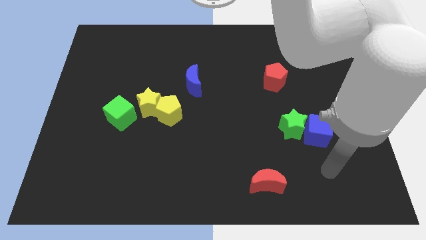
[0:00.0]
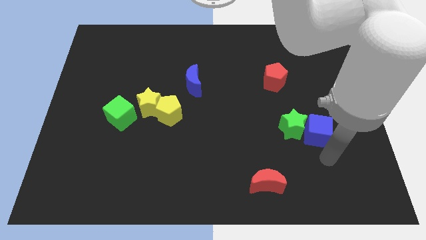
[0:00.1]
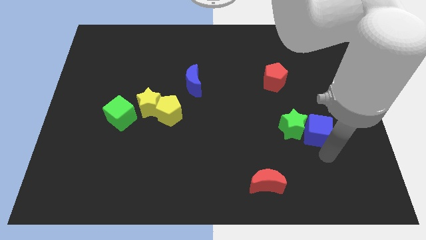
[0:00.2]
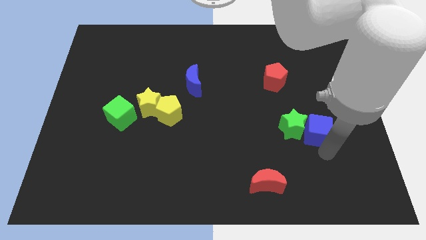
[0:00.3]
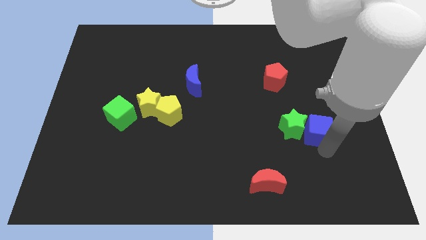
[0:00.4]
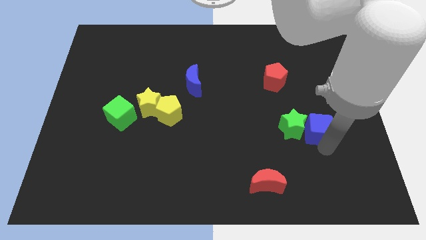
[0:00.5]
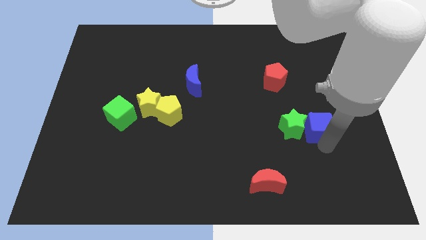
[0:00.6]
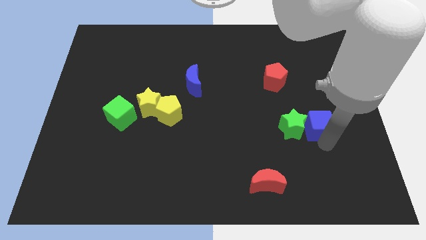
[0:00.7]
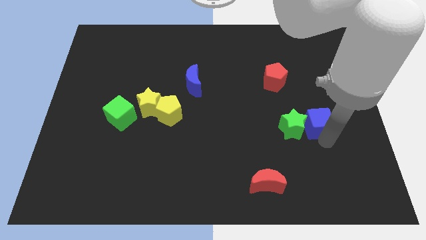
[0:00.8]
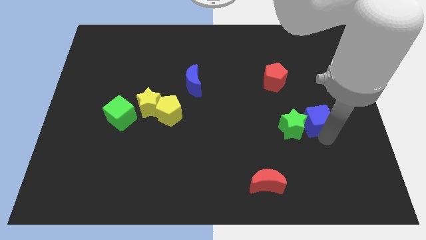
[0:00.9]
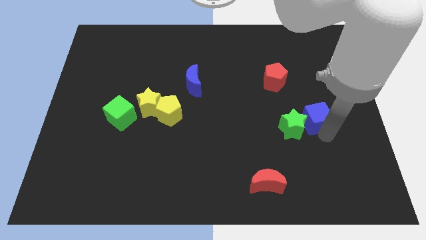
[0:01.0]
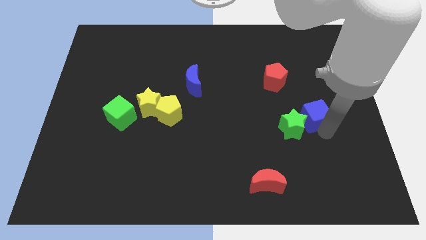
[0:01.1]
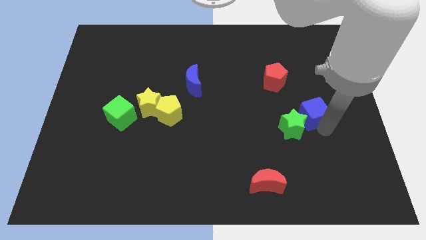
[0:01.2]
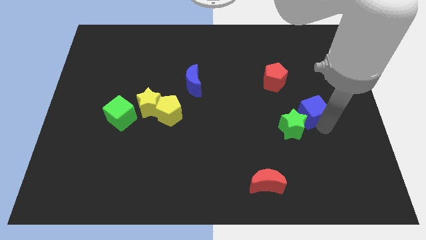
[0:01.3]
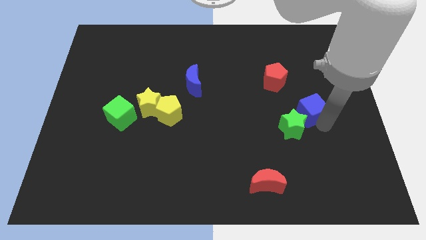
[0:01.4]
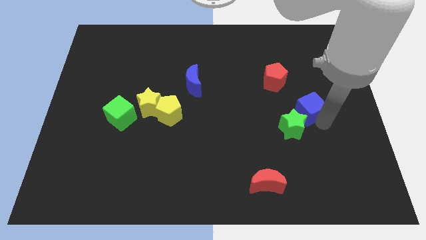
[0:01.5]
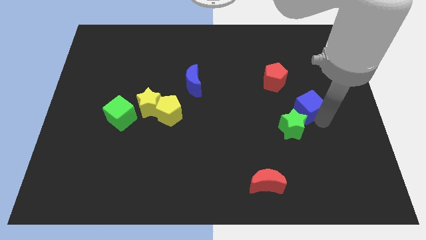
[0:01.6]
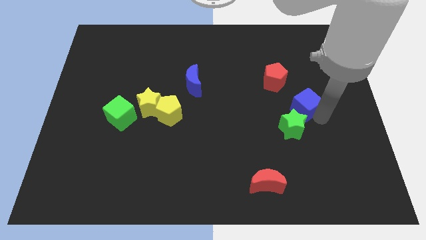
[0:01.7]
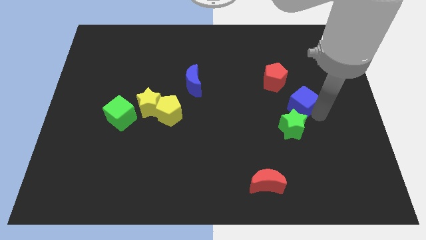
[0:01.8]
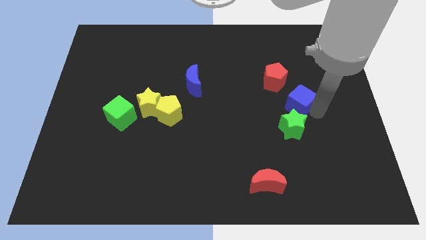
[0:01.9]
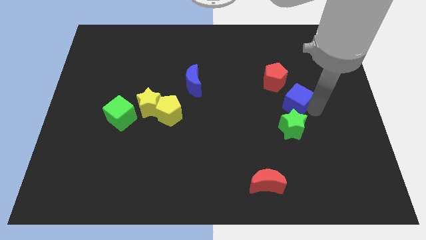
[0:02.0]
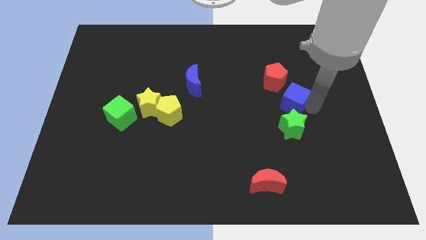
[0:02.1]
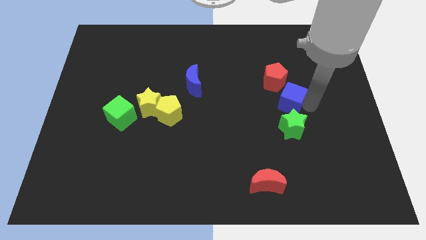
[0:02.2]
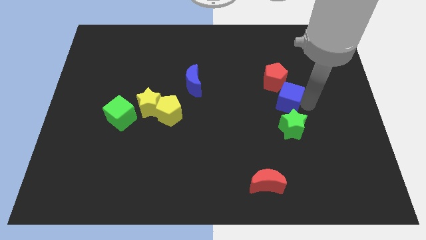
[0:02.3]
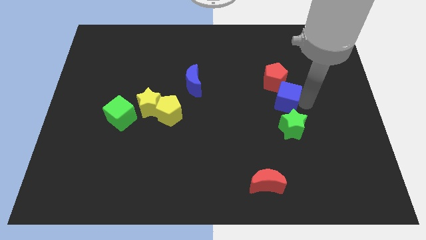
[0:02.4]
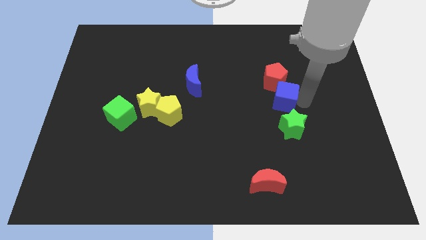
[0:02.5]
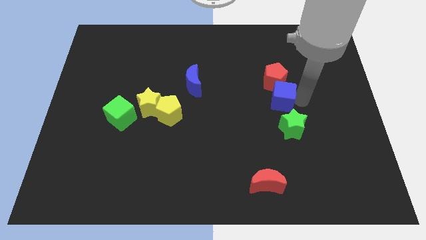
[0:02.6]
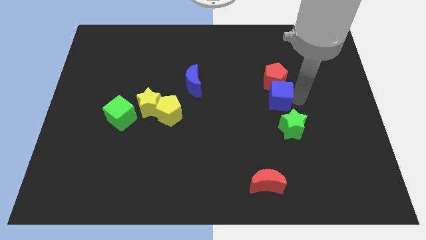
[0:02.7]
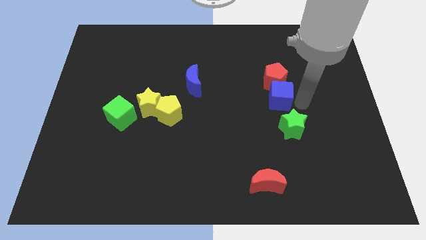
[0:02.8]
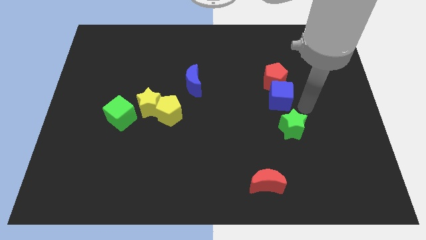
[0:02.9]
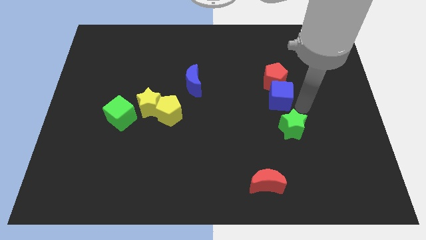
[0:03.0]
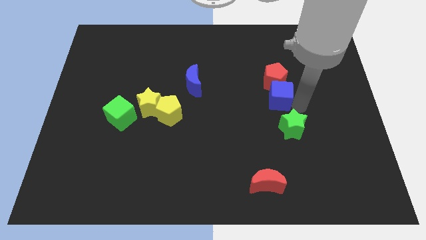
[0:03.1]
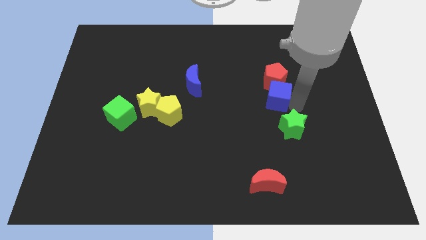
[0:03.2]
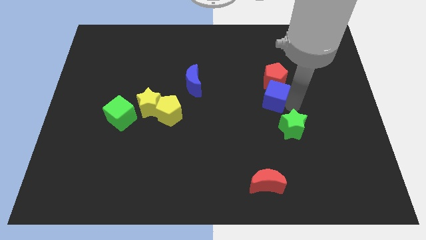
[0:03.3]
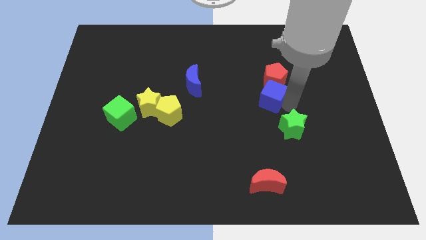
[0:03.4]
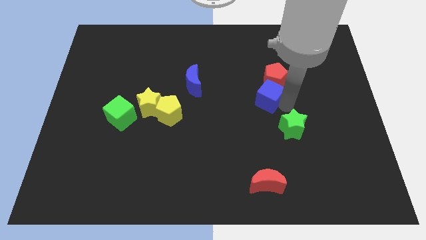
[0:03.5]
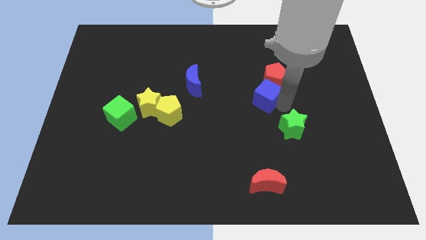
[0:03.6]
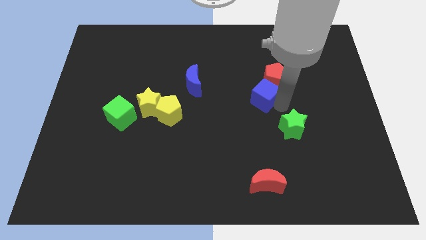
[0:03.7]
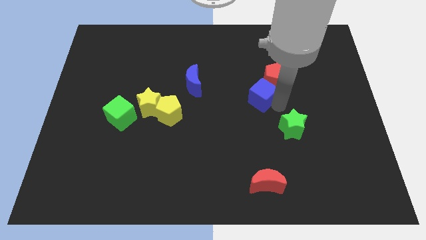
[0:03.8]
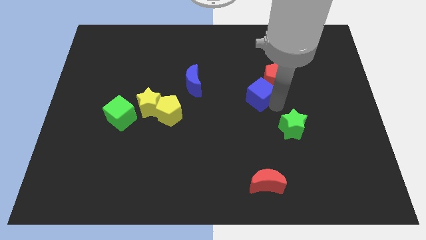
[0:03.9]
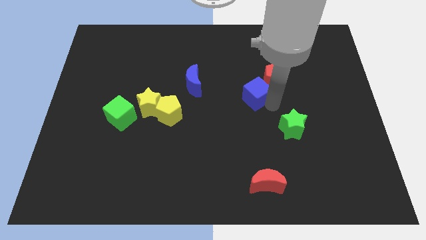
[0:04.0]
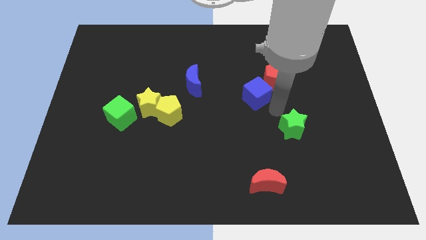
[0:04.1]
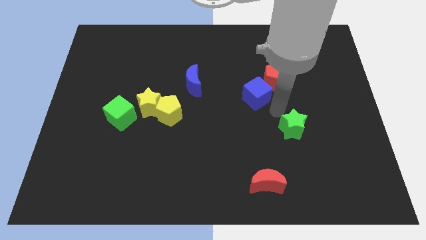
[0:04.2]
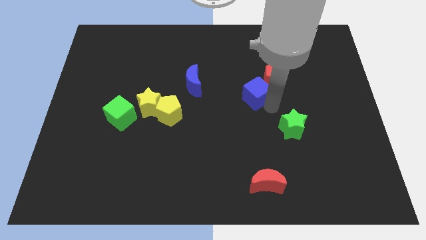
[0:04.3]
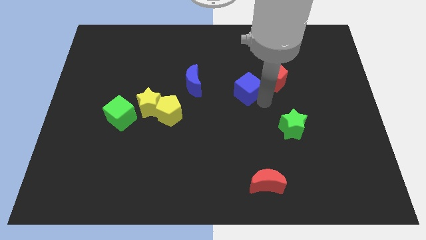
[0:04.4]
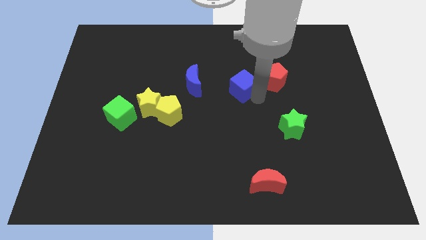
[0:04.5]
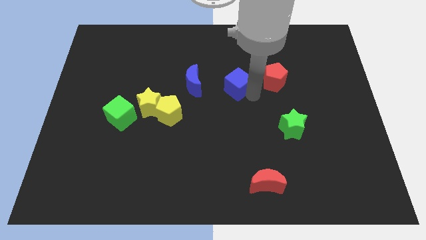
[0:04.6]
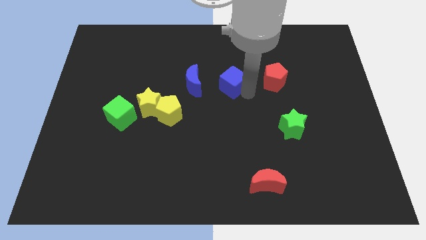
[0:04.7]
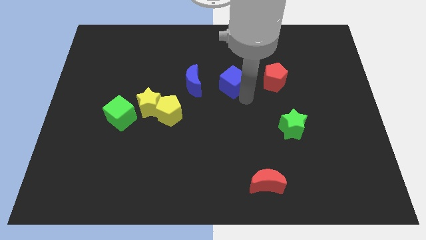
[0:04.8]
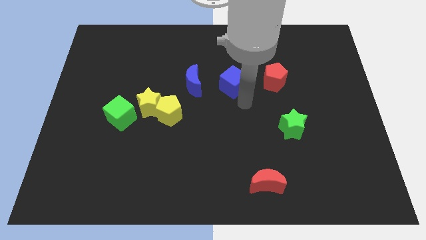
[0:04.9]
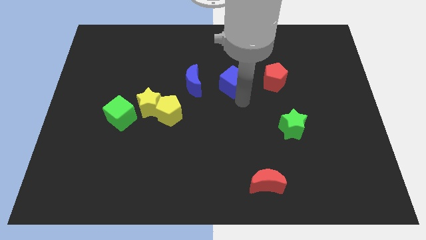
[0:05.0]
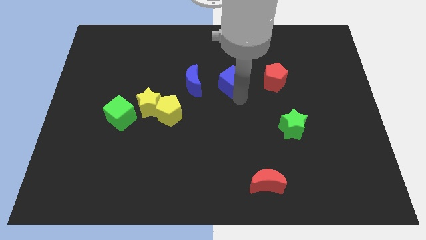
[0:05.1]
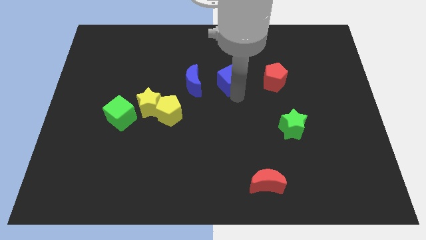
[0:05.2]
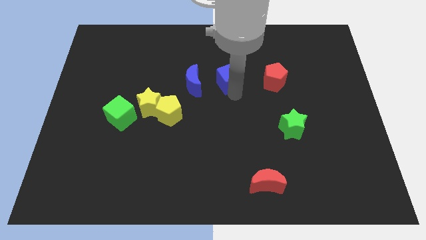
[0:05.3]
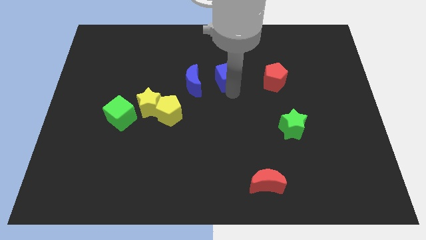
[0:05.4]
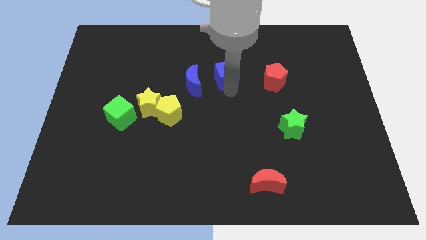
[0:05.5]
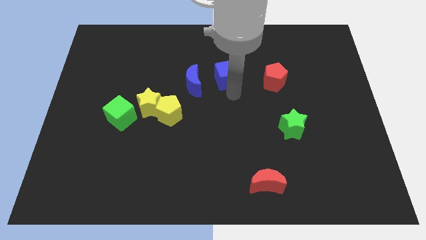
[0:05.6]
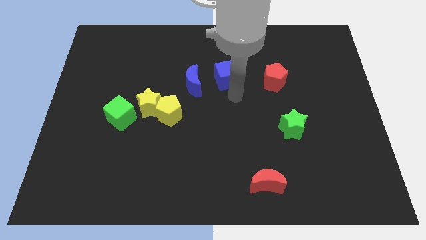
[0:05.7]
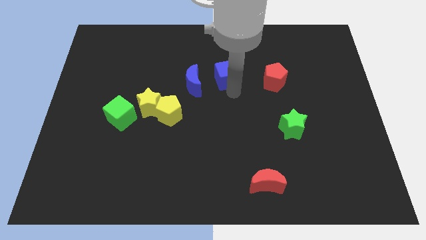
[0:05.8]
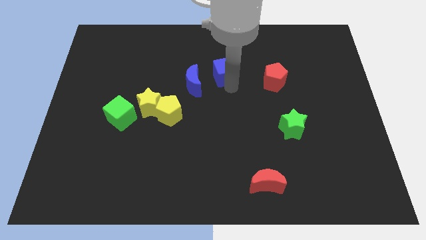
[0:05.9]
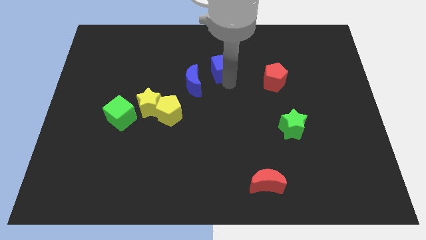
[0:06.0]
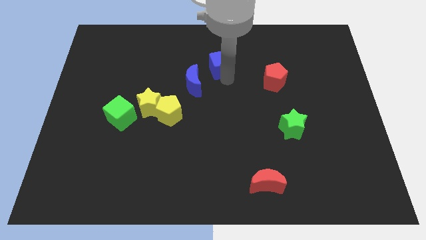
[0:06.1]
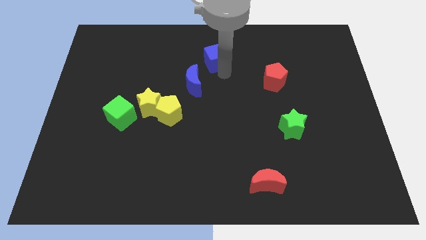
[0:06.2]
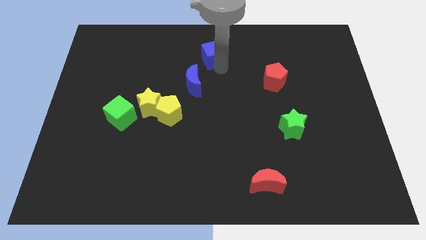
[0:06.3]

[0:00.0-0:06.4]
move the blue cube to the towards your base

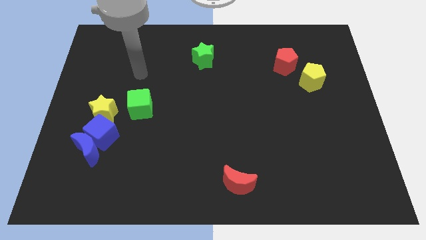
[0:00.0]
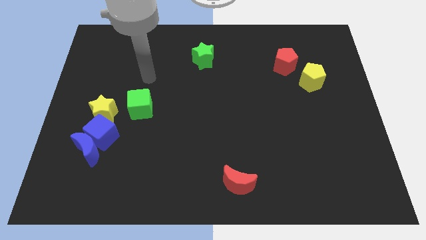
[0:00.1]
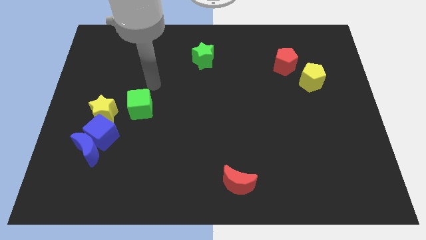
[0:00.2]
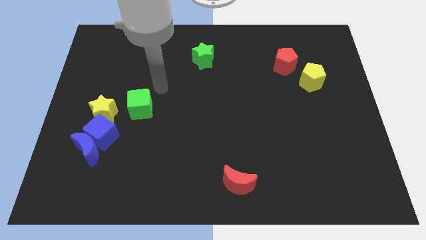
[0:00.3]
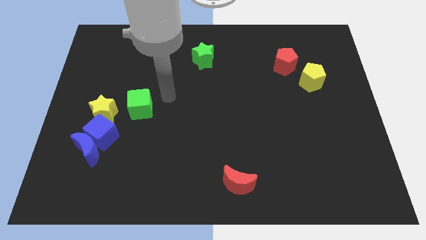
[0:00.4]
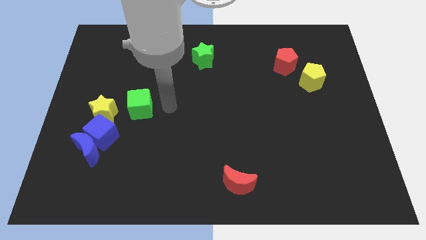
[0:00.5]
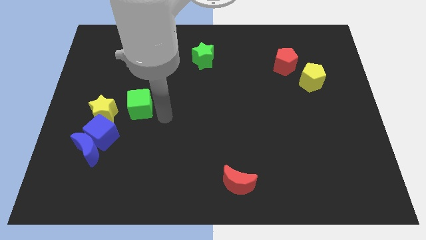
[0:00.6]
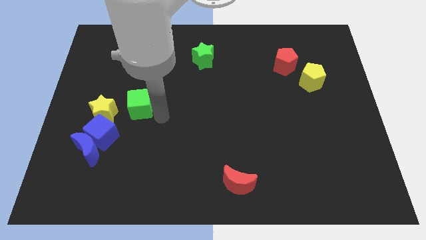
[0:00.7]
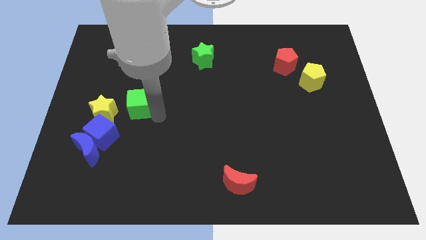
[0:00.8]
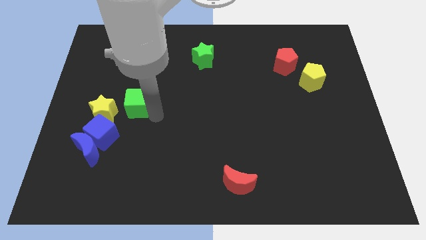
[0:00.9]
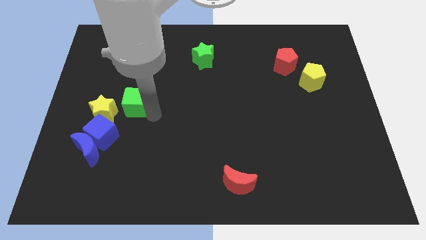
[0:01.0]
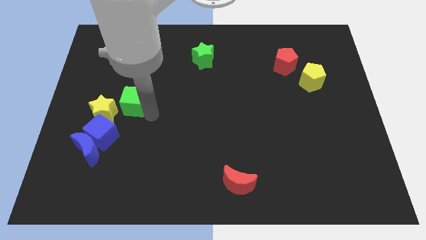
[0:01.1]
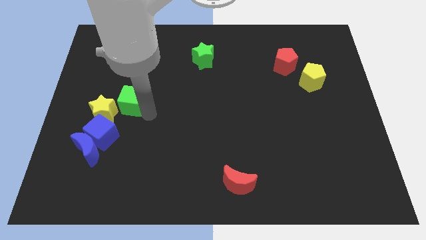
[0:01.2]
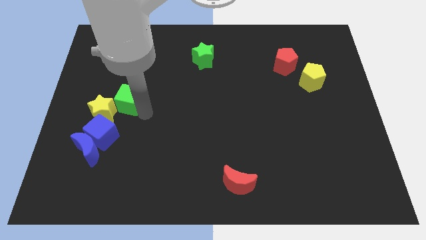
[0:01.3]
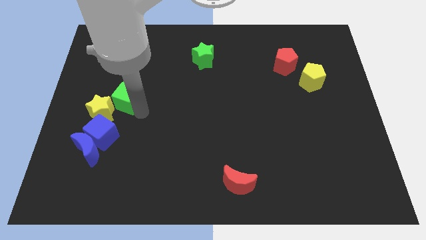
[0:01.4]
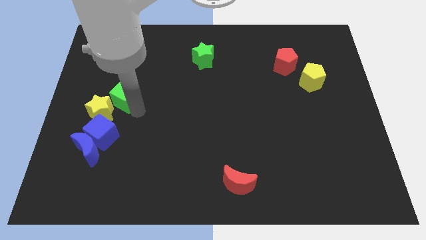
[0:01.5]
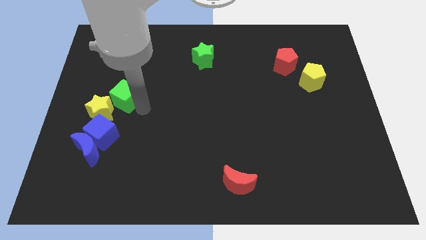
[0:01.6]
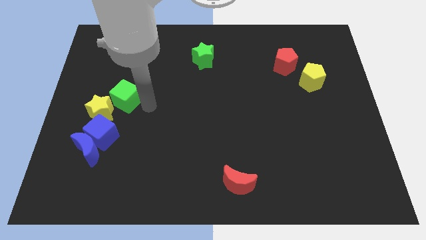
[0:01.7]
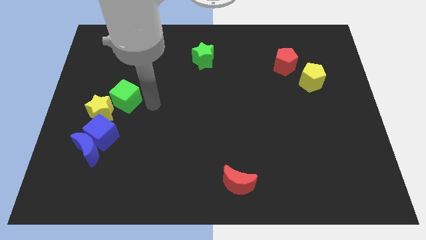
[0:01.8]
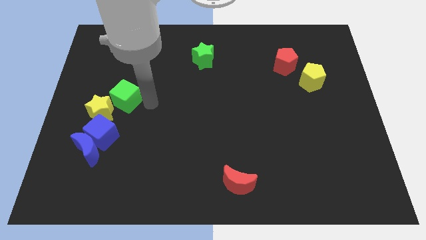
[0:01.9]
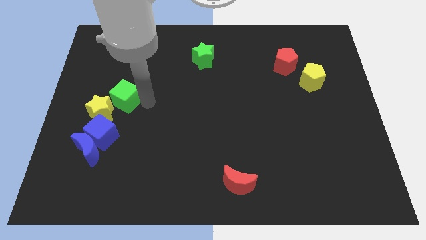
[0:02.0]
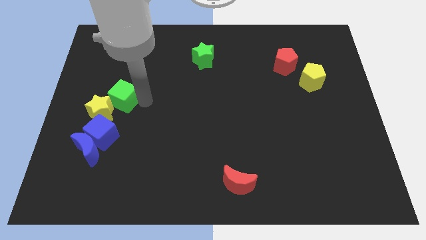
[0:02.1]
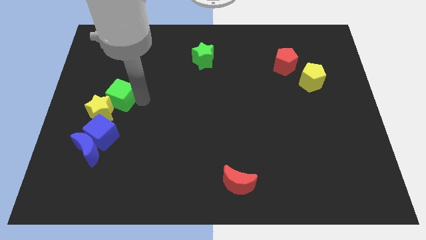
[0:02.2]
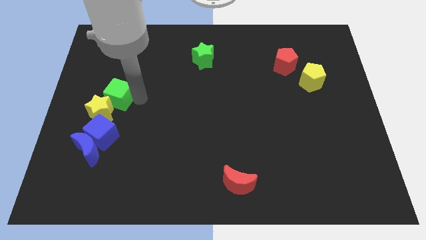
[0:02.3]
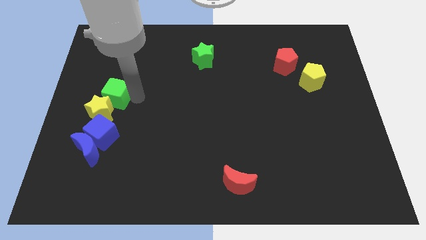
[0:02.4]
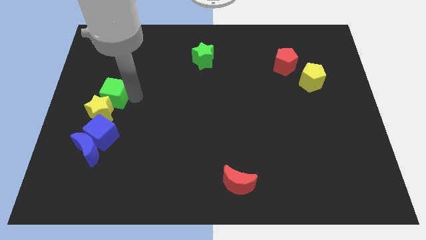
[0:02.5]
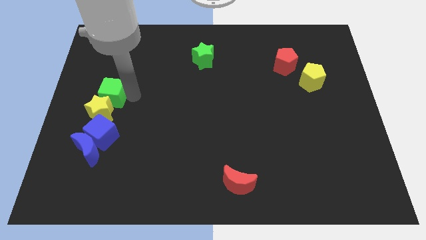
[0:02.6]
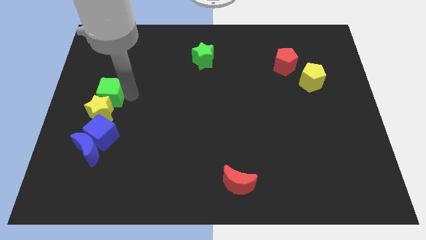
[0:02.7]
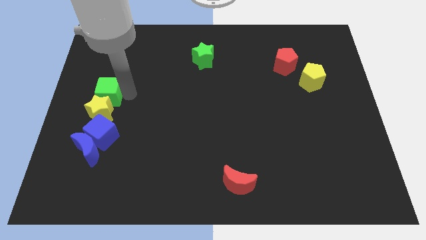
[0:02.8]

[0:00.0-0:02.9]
push the green cube to the left side
